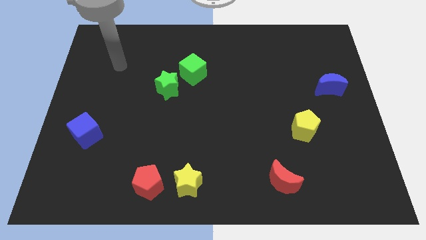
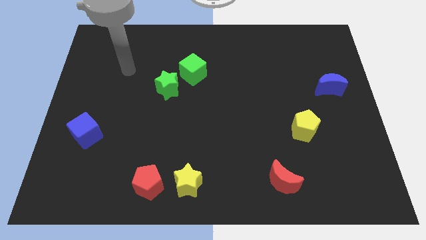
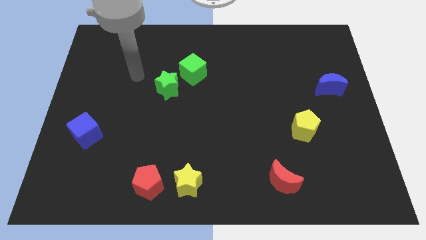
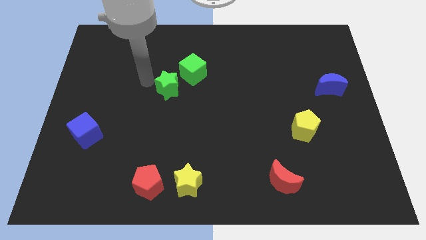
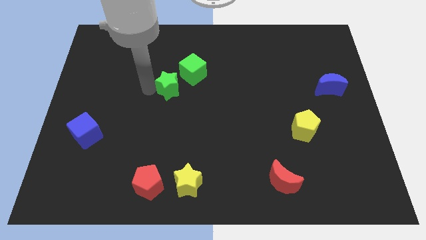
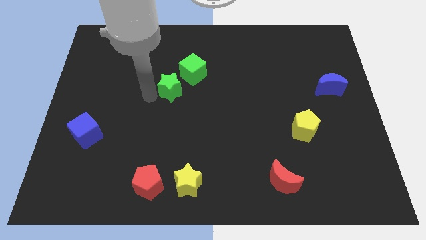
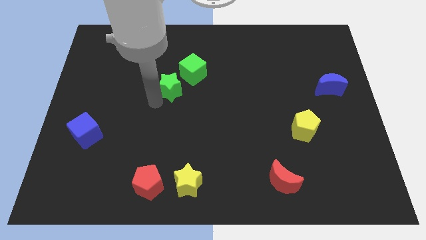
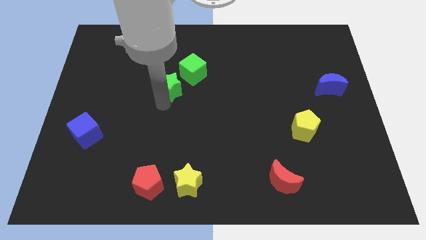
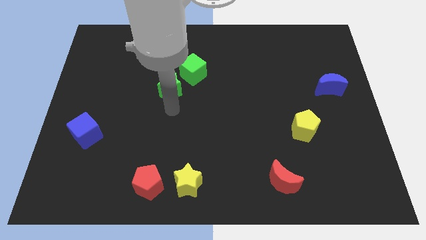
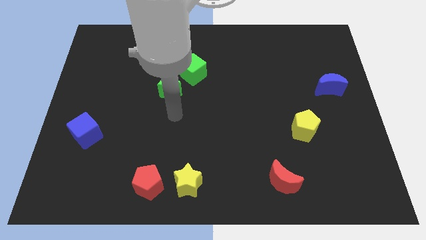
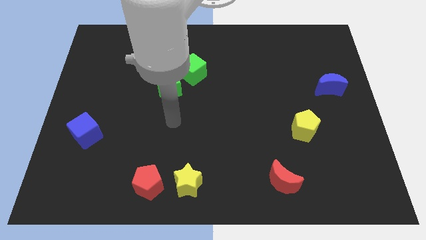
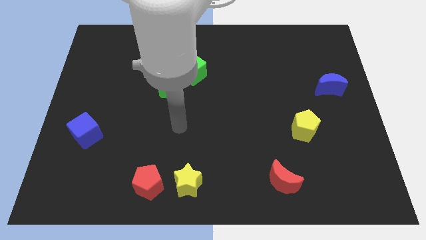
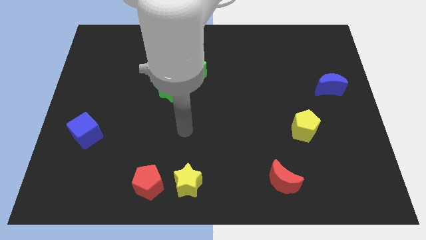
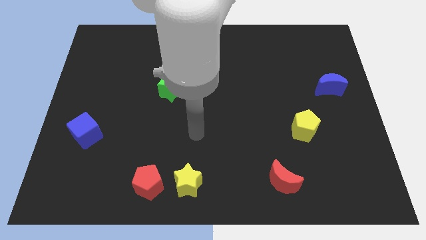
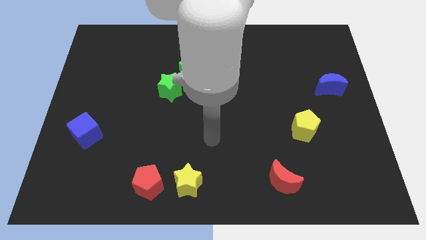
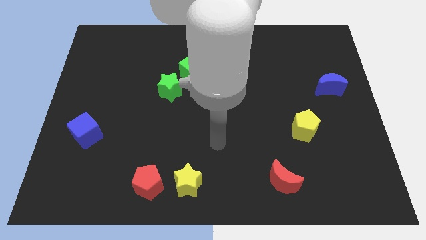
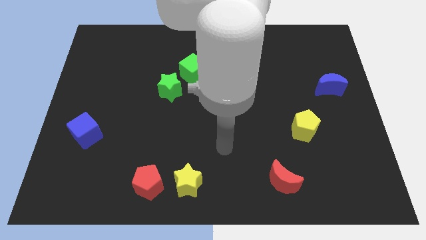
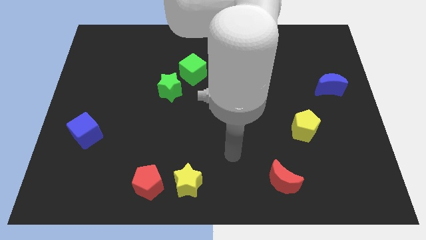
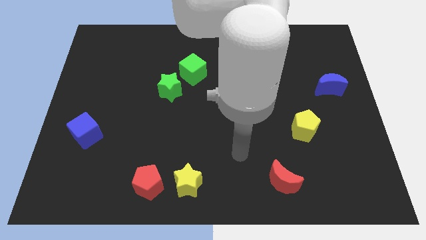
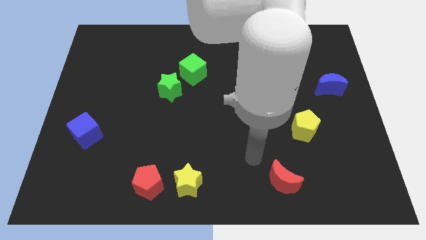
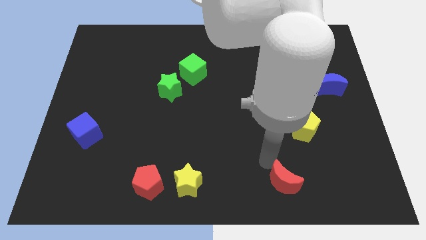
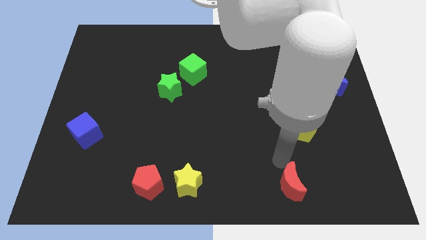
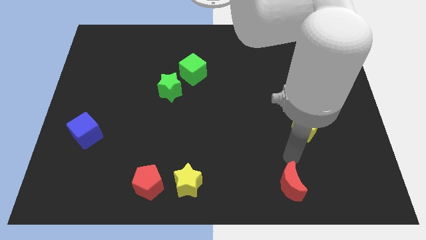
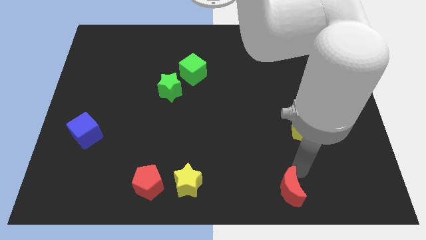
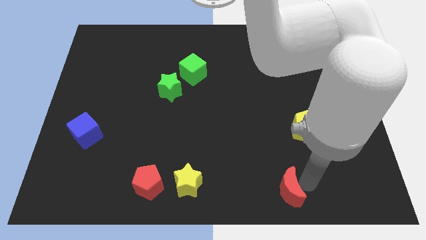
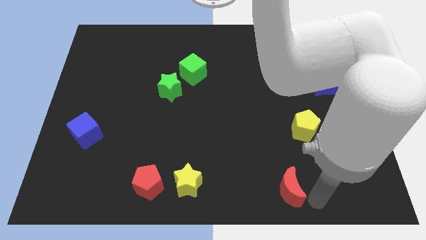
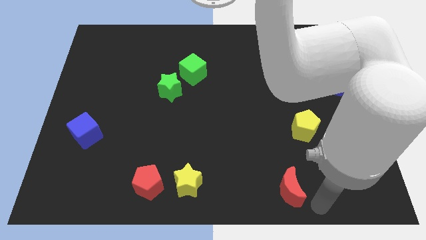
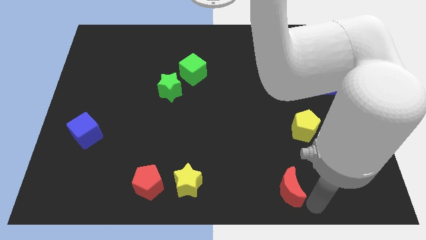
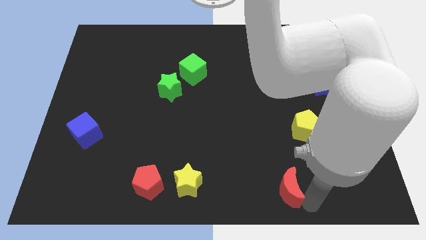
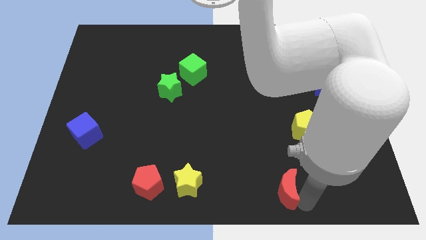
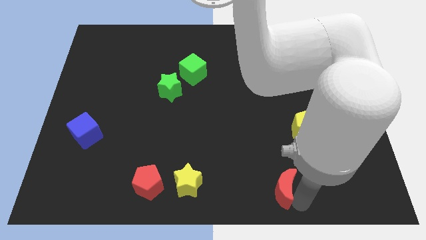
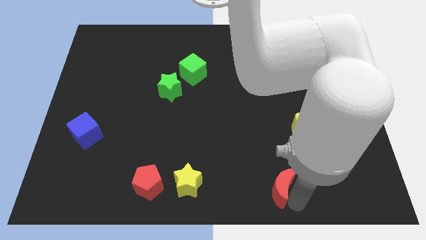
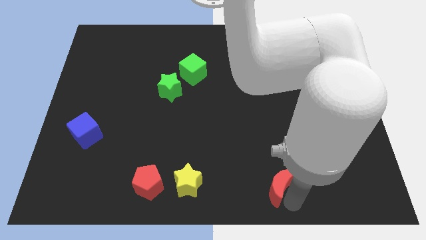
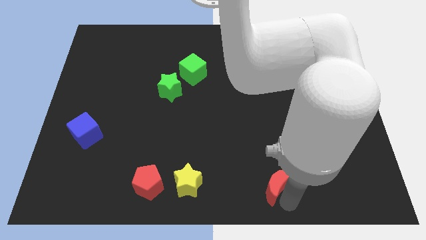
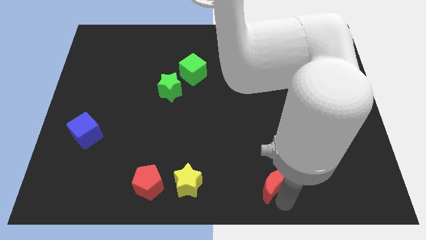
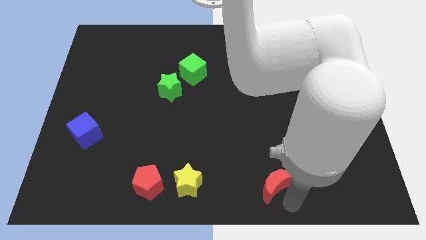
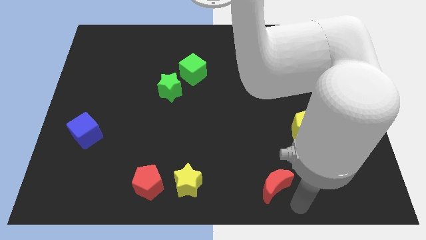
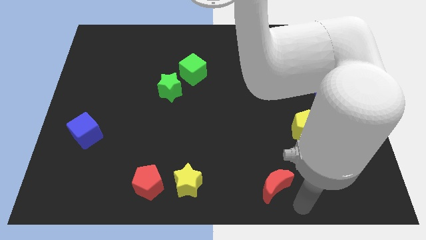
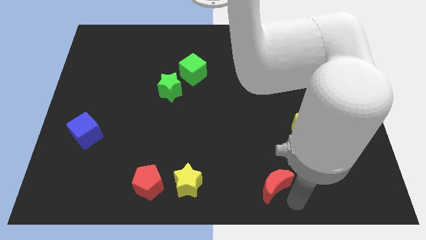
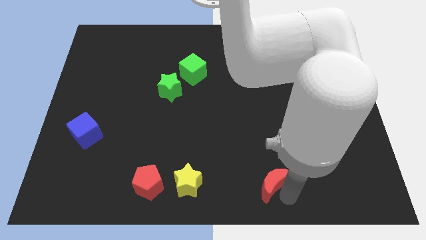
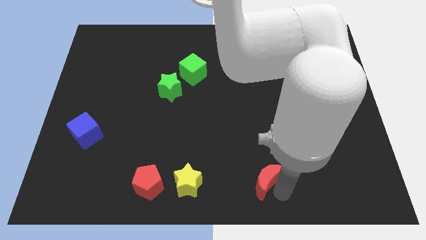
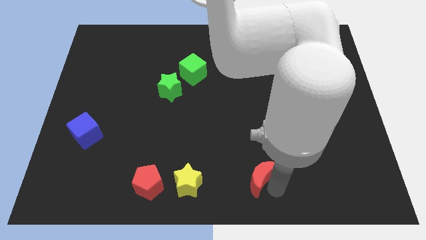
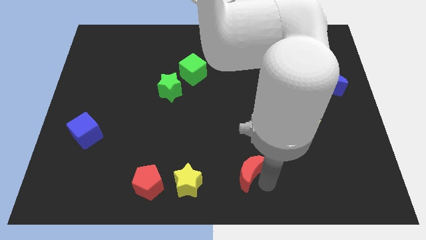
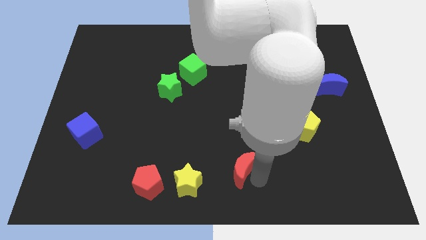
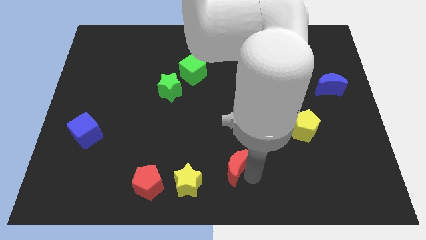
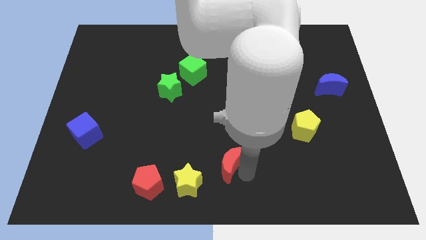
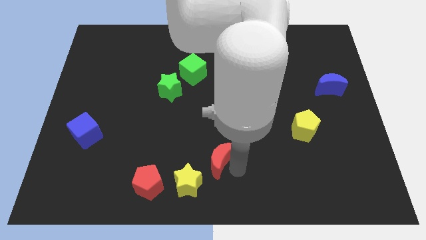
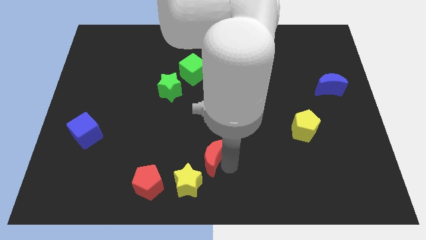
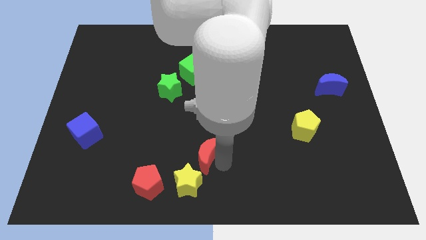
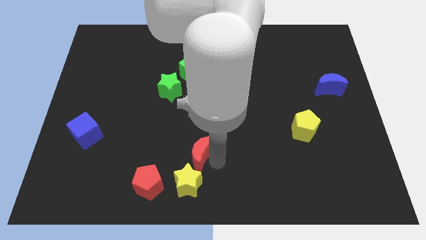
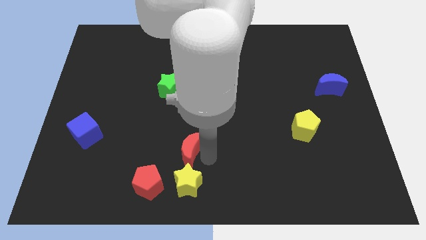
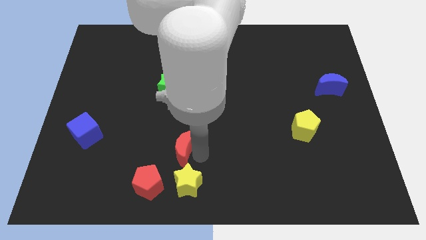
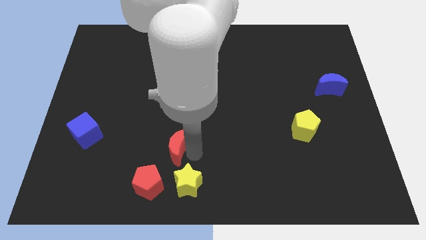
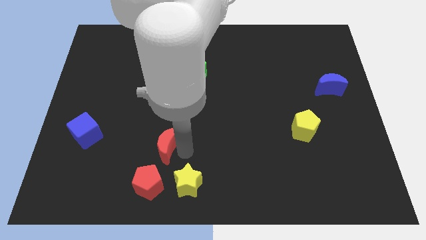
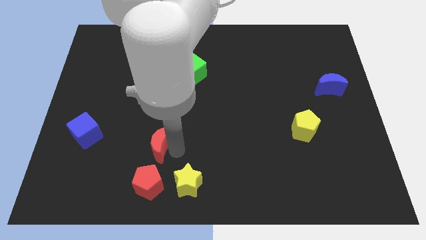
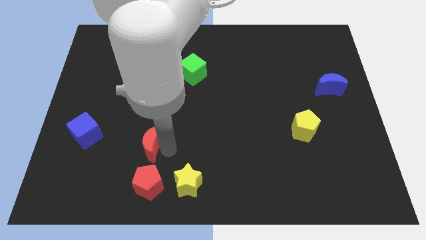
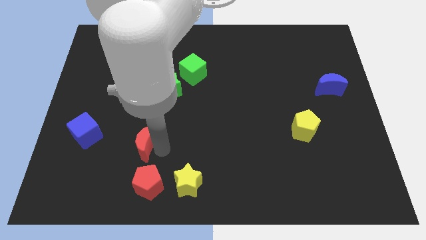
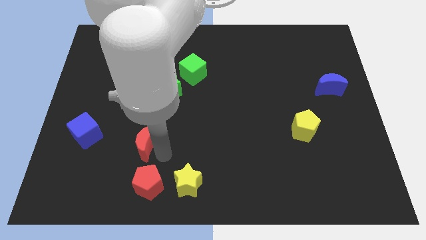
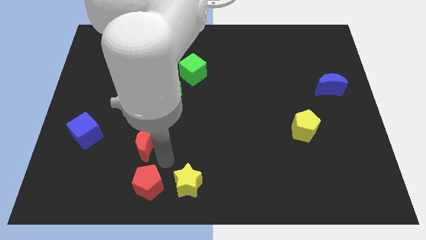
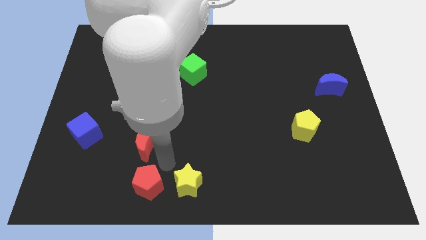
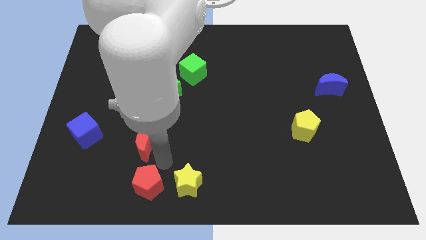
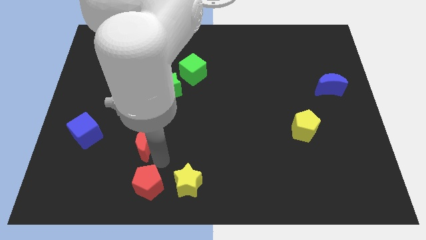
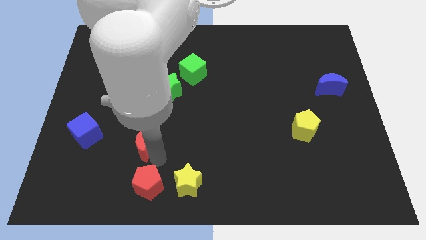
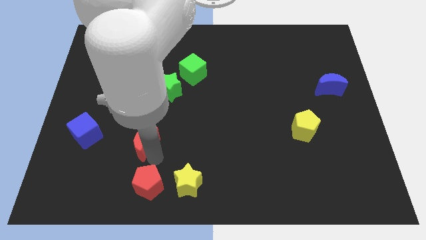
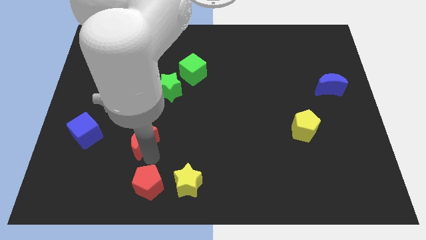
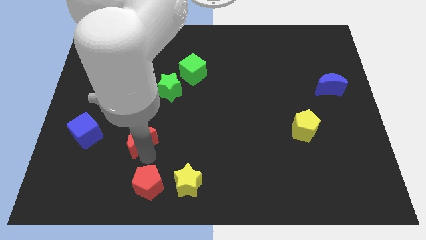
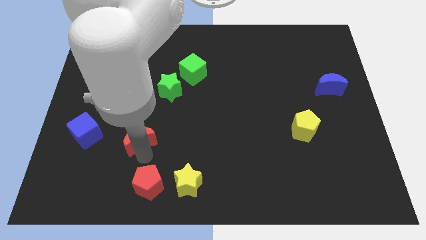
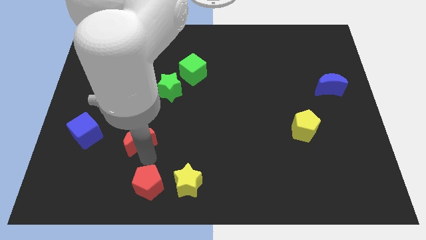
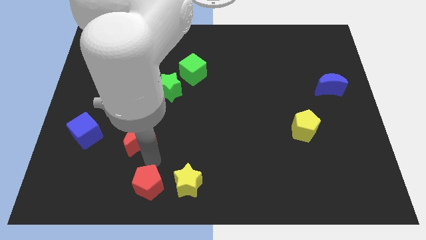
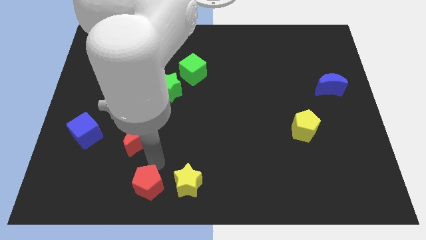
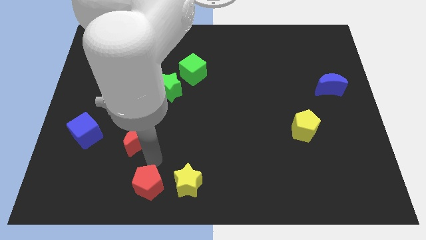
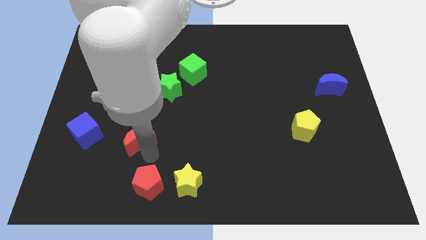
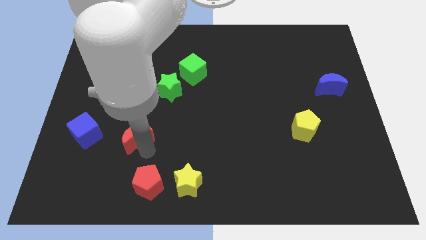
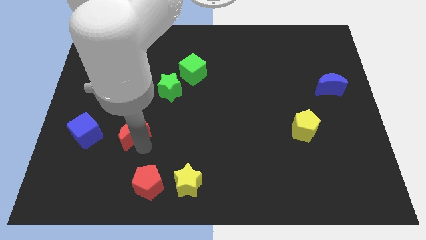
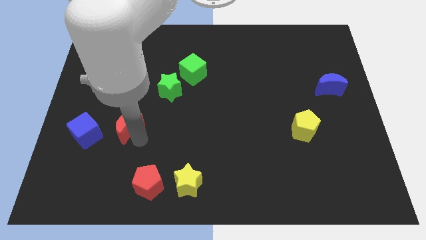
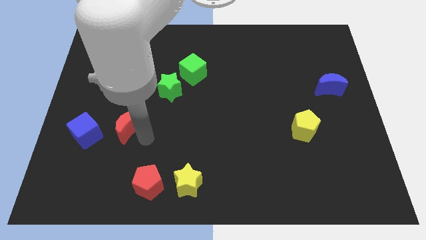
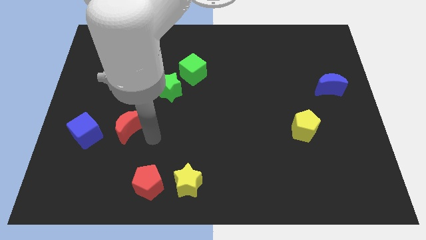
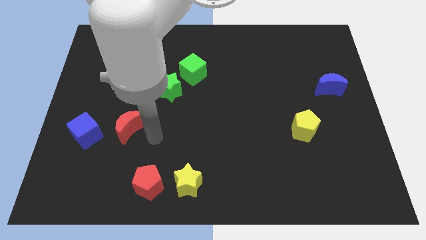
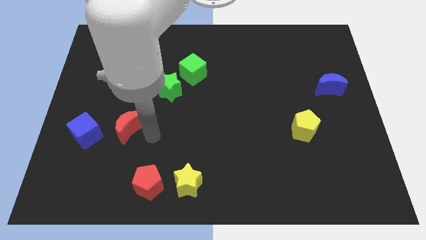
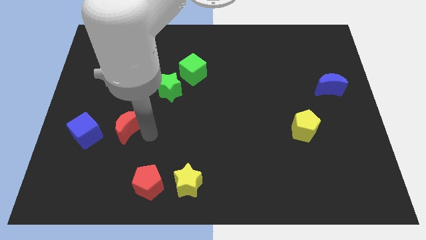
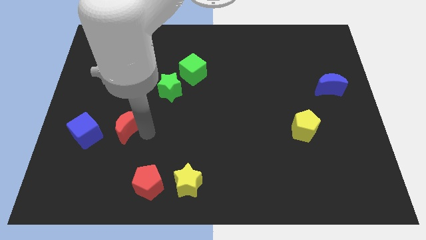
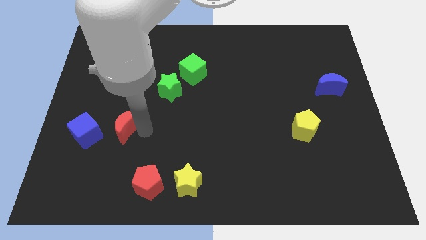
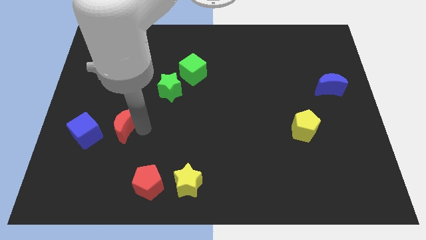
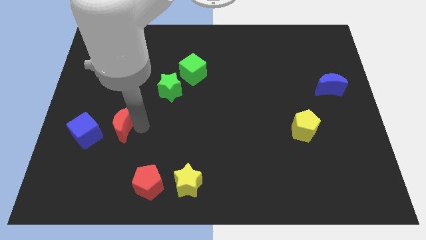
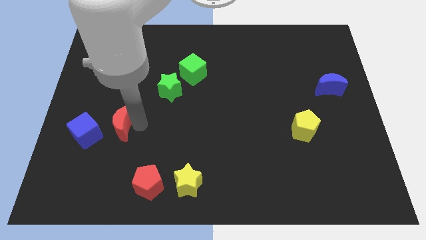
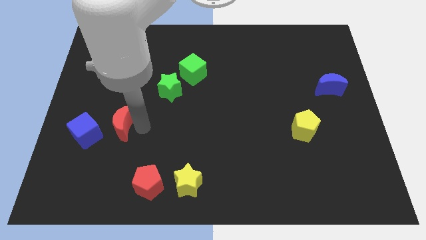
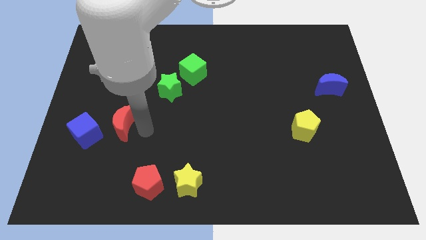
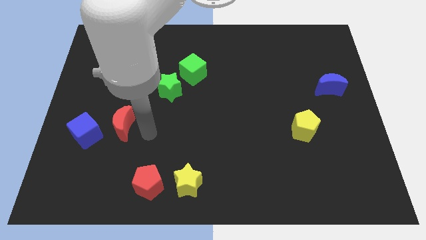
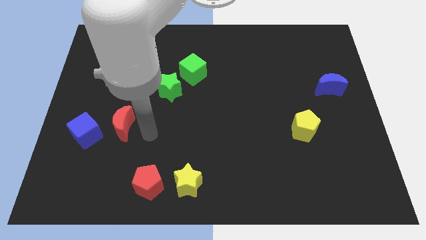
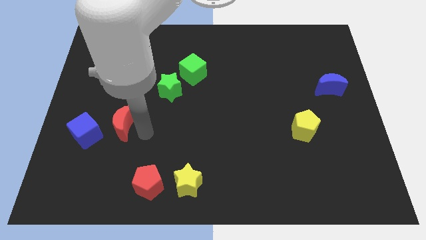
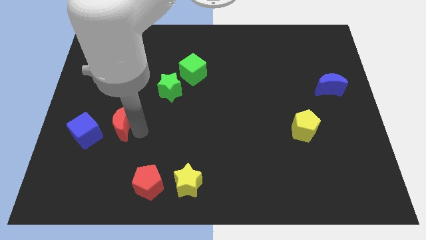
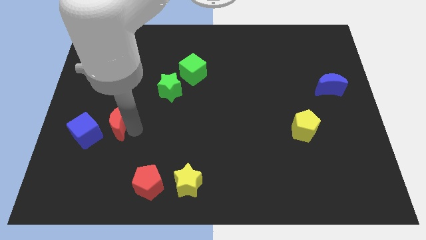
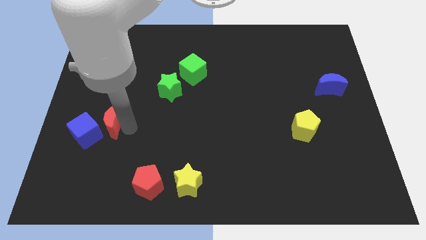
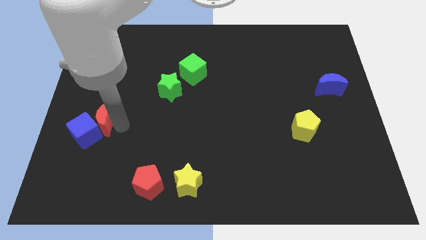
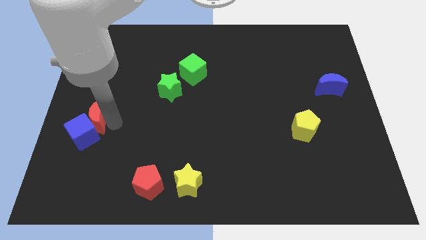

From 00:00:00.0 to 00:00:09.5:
push the red moon to the center left
